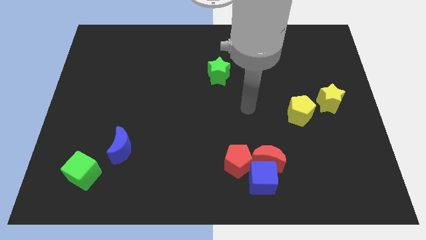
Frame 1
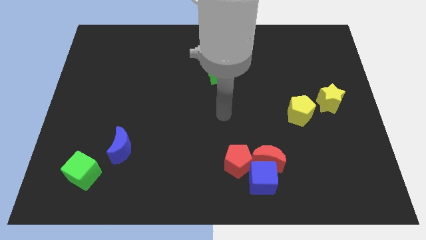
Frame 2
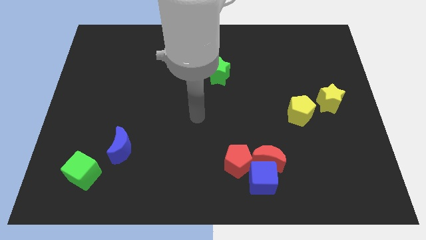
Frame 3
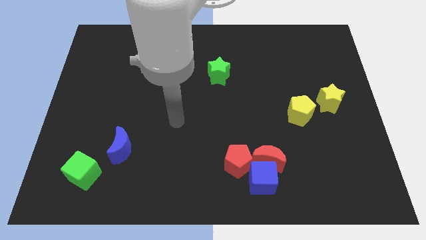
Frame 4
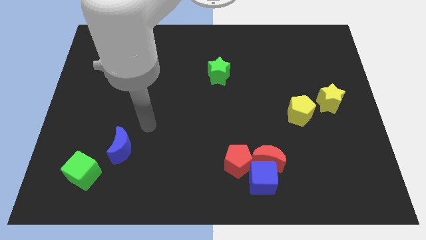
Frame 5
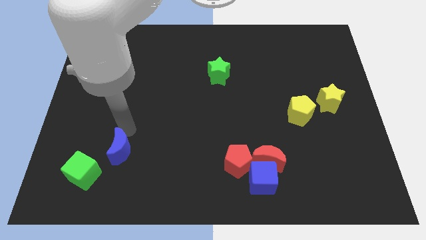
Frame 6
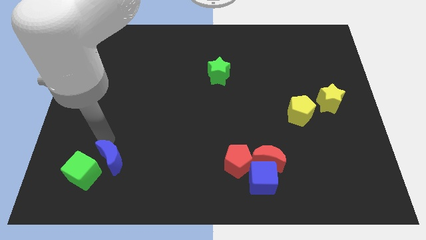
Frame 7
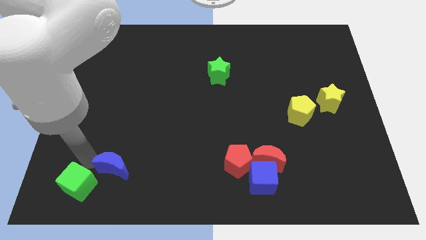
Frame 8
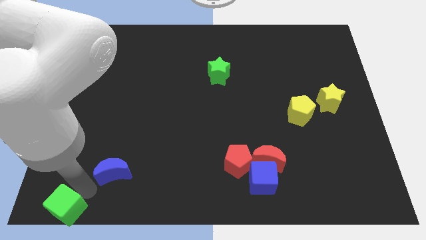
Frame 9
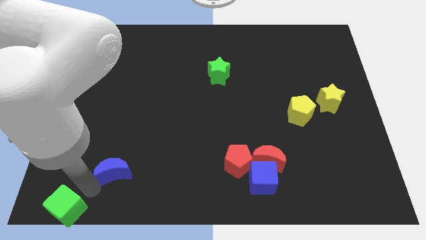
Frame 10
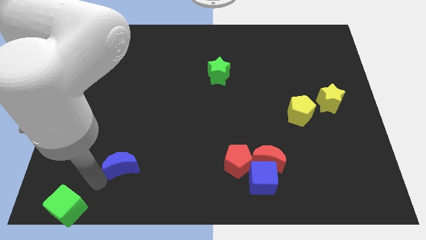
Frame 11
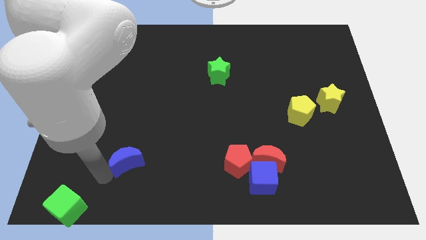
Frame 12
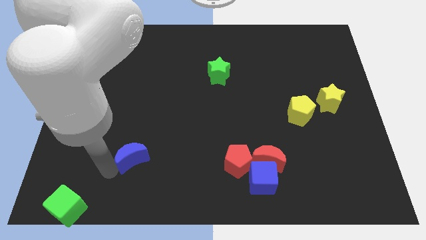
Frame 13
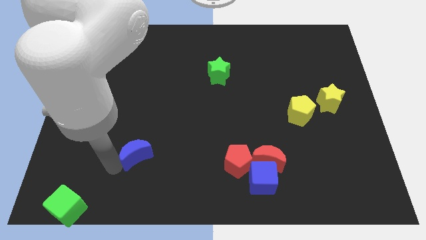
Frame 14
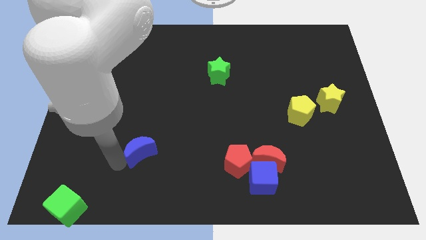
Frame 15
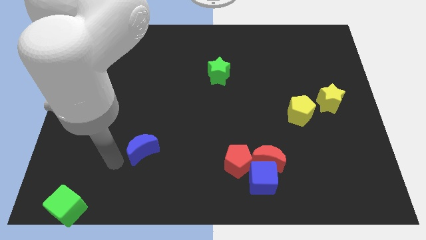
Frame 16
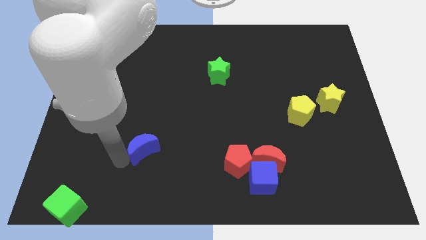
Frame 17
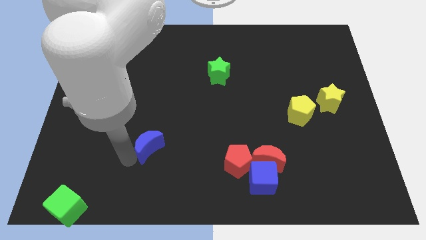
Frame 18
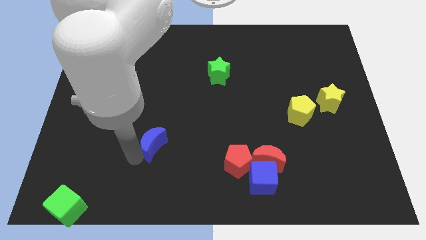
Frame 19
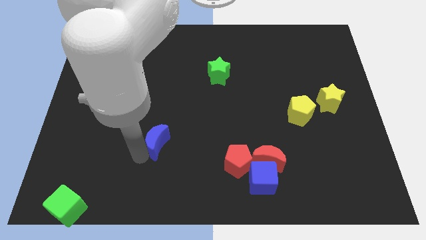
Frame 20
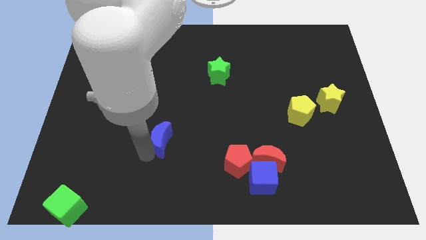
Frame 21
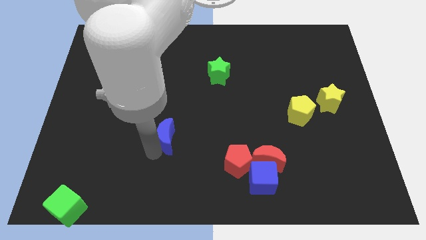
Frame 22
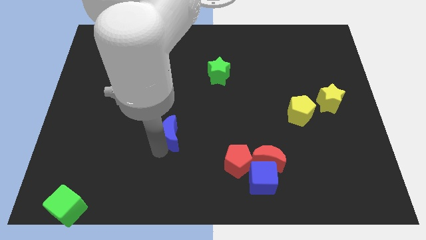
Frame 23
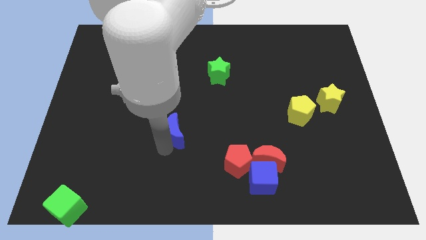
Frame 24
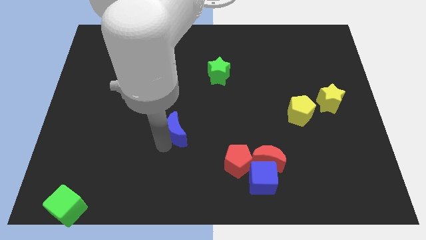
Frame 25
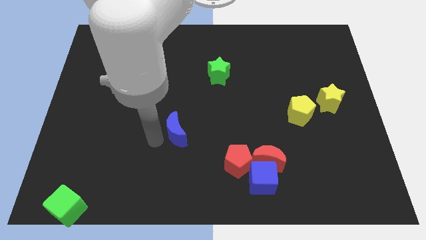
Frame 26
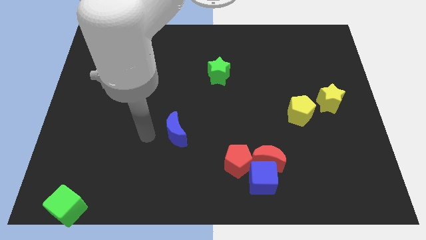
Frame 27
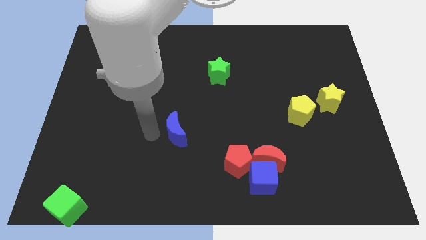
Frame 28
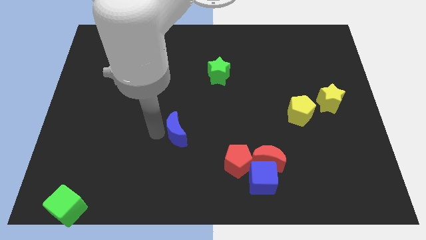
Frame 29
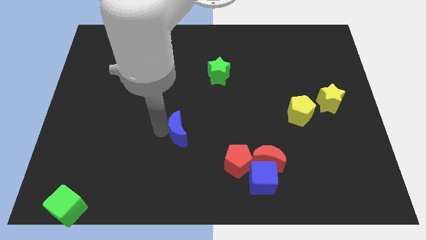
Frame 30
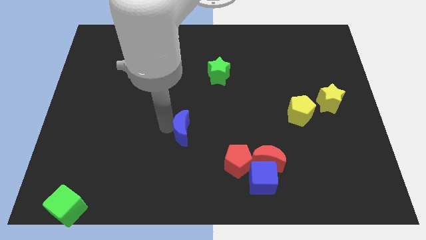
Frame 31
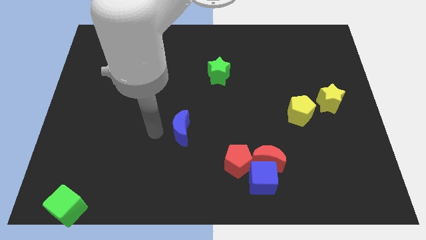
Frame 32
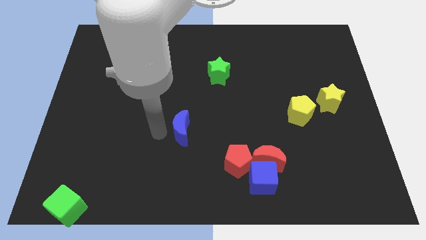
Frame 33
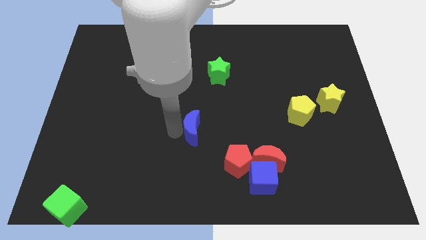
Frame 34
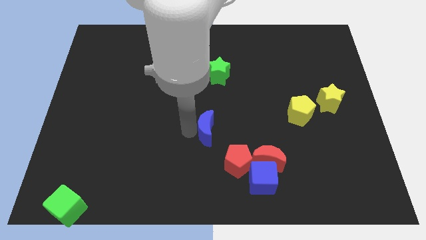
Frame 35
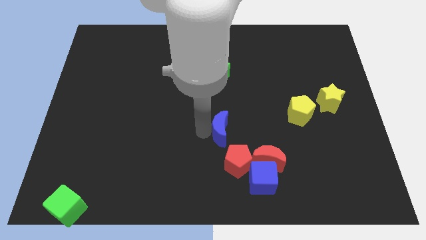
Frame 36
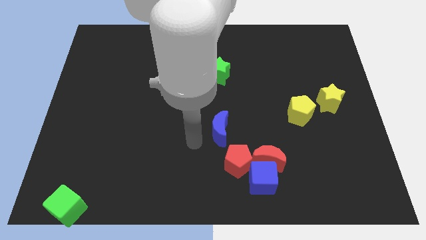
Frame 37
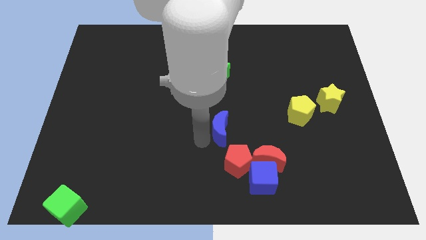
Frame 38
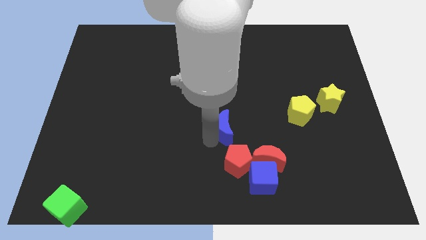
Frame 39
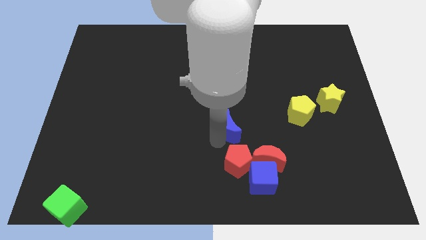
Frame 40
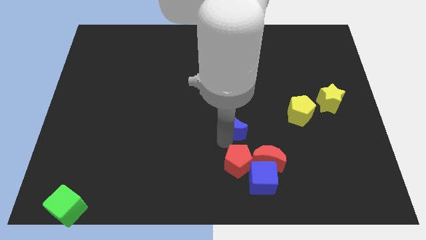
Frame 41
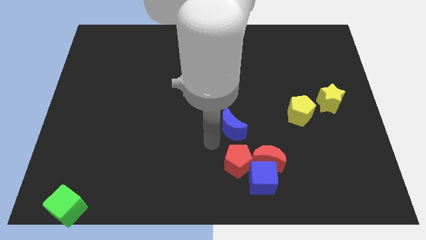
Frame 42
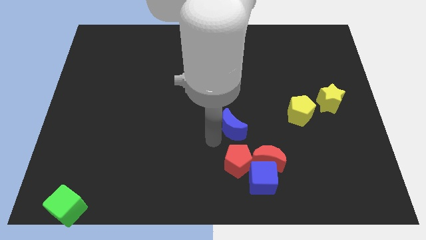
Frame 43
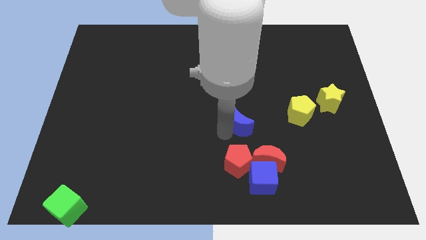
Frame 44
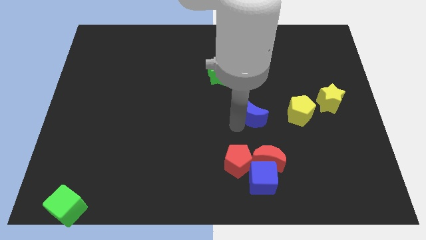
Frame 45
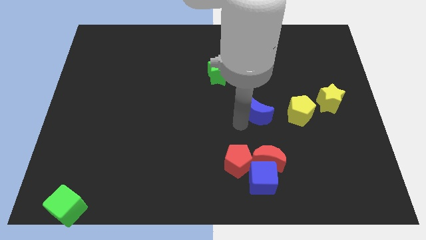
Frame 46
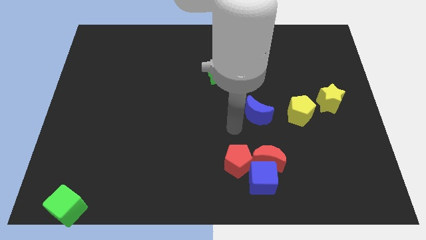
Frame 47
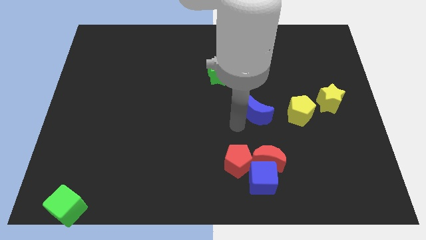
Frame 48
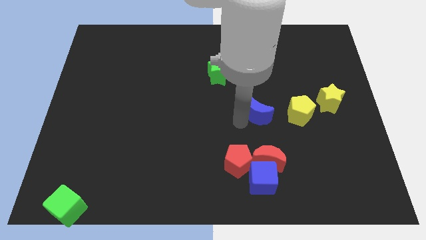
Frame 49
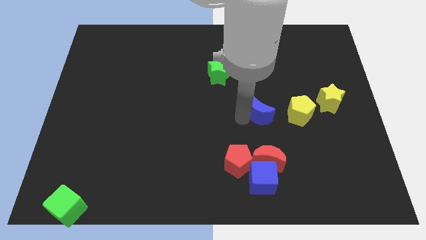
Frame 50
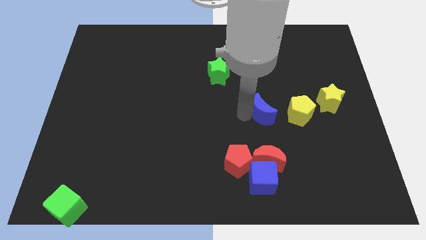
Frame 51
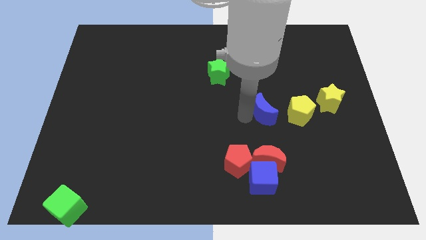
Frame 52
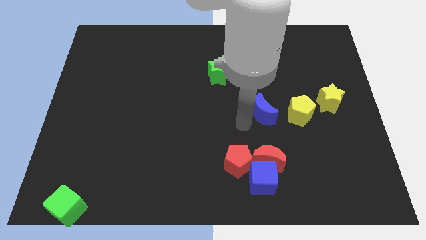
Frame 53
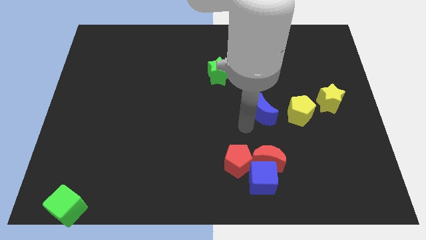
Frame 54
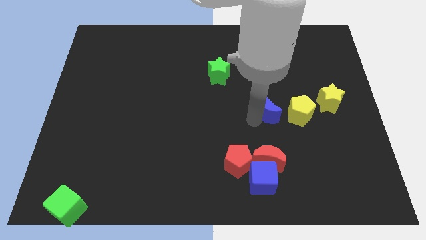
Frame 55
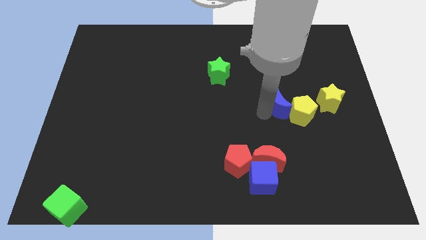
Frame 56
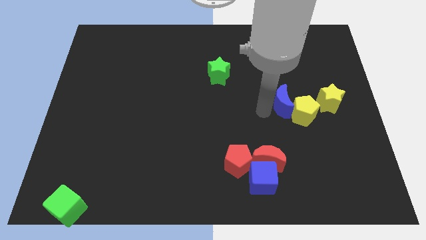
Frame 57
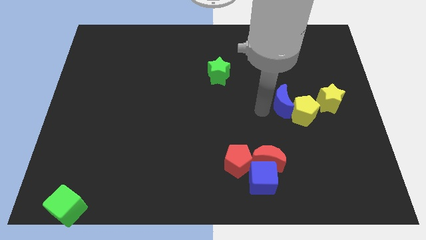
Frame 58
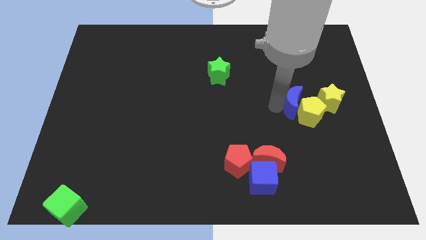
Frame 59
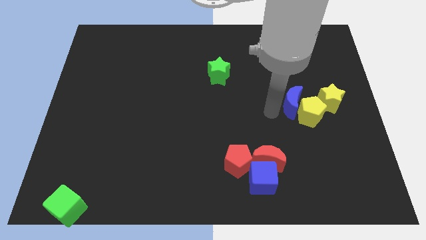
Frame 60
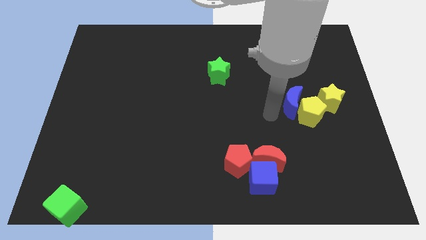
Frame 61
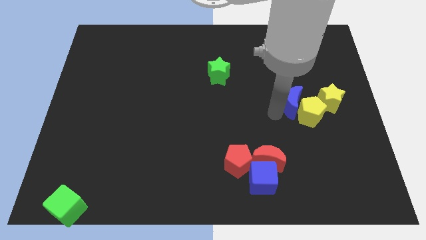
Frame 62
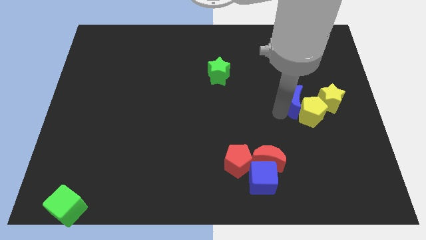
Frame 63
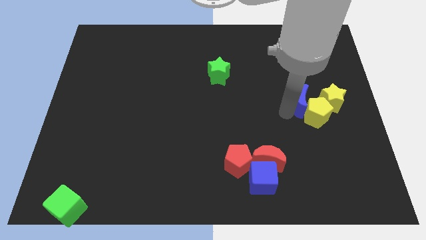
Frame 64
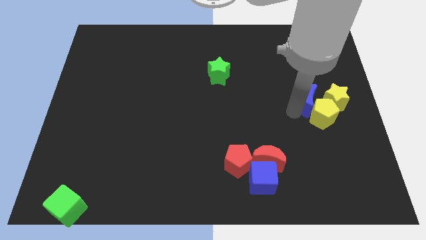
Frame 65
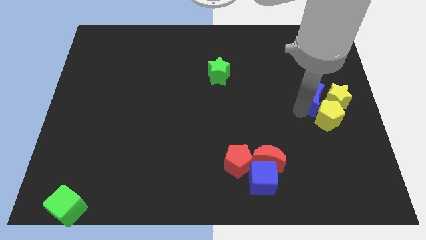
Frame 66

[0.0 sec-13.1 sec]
slide the blue moon next to the yellow star

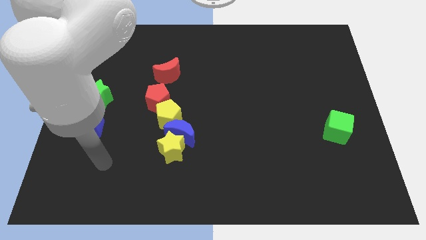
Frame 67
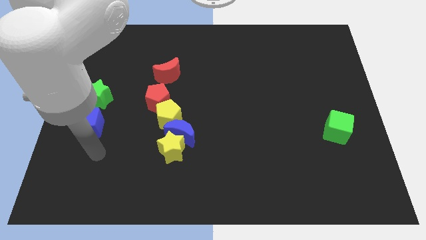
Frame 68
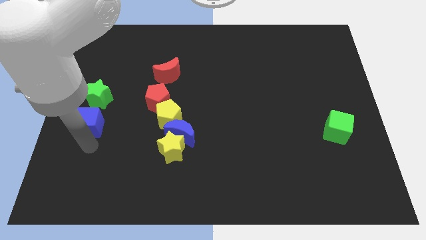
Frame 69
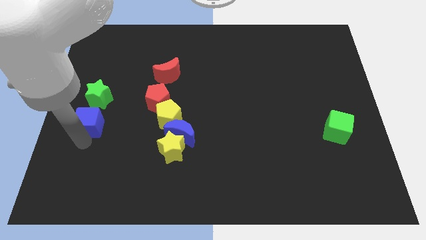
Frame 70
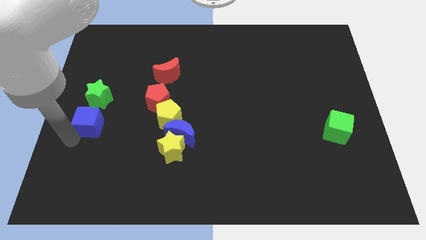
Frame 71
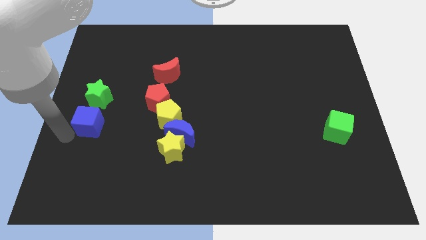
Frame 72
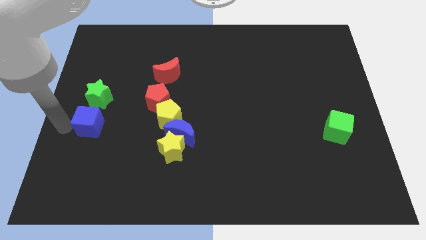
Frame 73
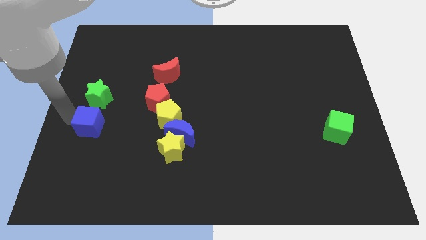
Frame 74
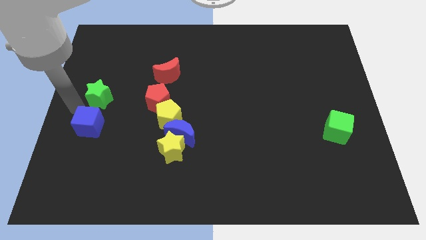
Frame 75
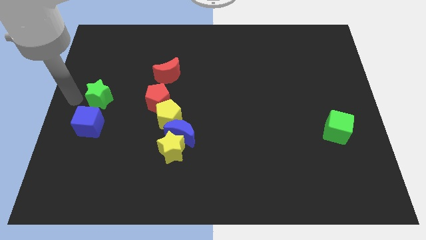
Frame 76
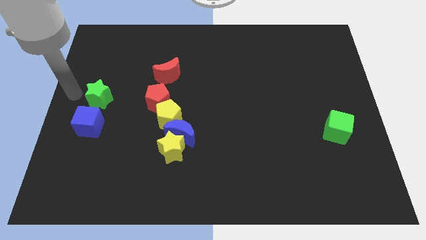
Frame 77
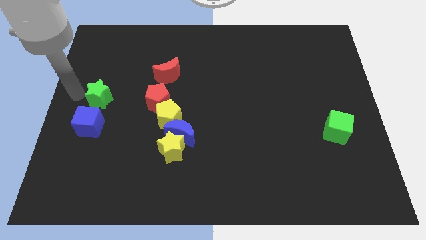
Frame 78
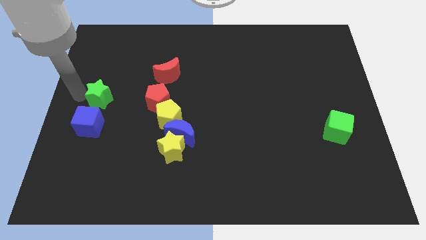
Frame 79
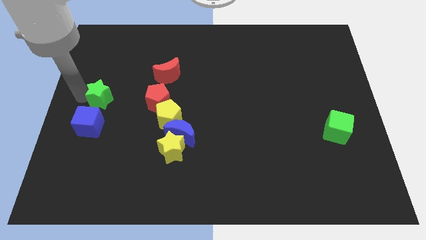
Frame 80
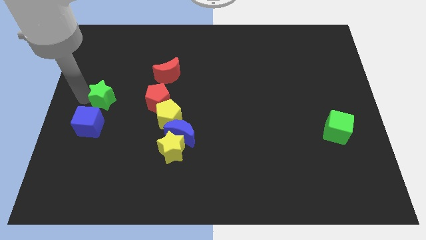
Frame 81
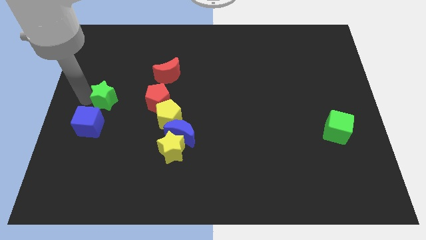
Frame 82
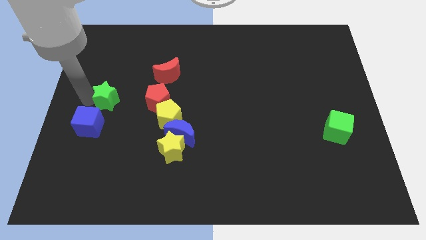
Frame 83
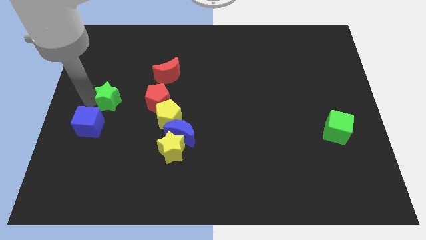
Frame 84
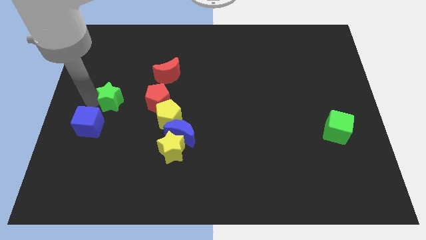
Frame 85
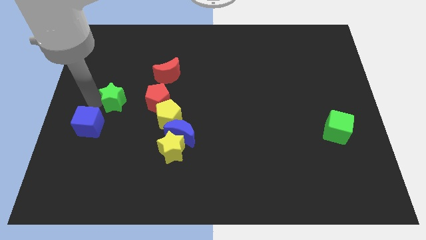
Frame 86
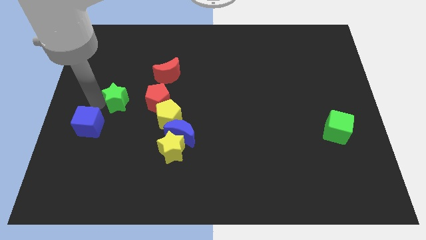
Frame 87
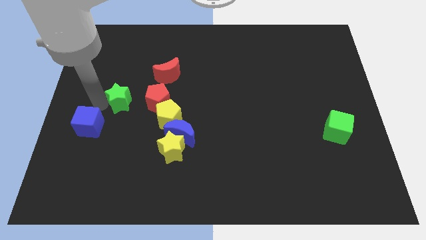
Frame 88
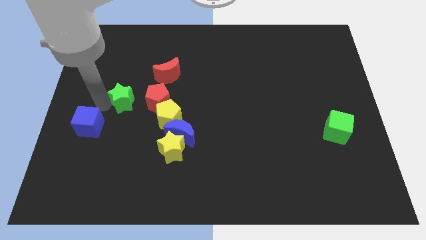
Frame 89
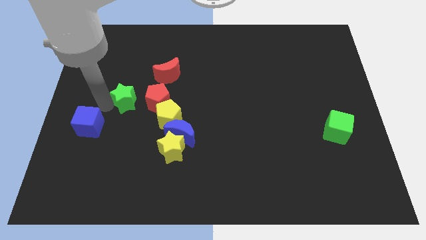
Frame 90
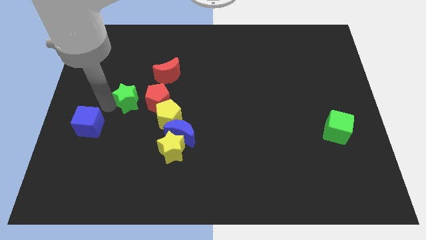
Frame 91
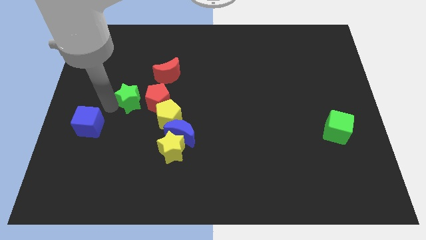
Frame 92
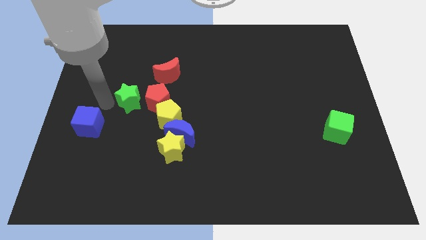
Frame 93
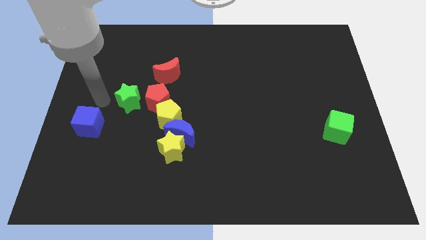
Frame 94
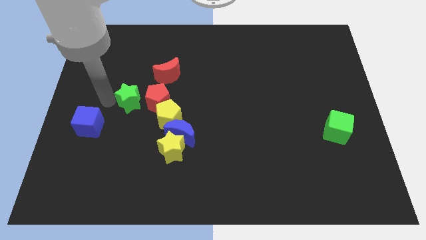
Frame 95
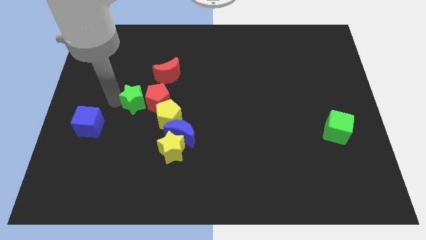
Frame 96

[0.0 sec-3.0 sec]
move the green star towards the red pentagon
